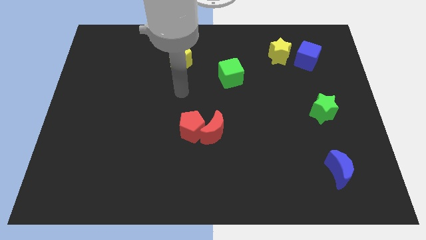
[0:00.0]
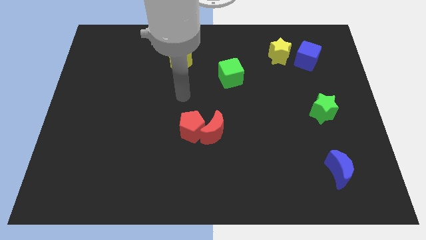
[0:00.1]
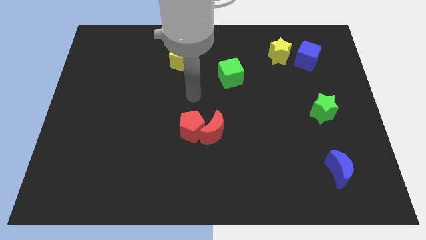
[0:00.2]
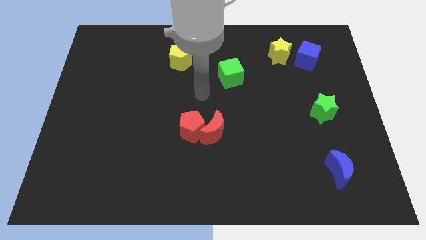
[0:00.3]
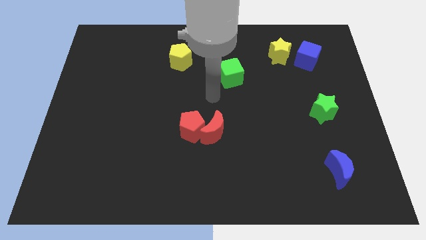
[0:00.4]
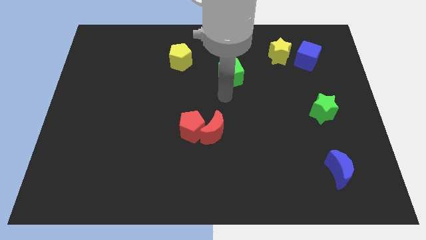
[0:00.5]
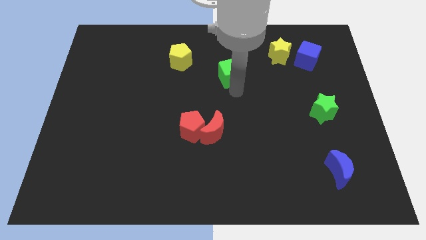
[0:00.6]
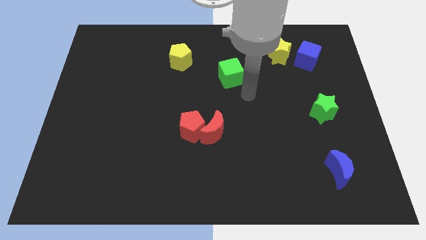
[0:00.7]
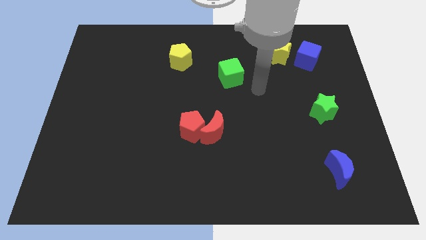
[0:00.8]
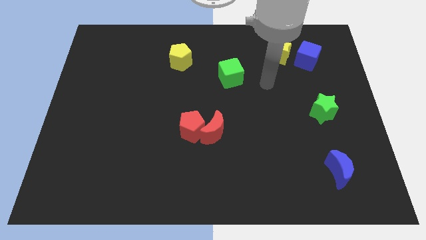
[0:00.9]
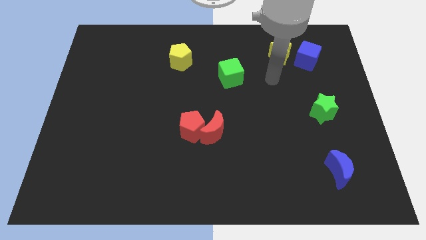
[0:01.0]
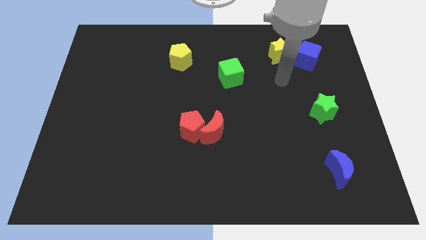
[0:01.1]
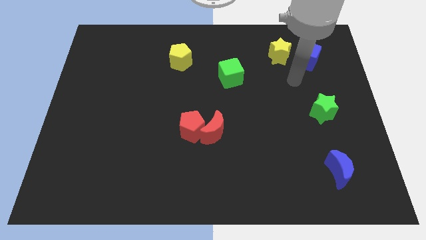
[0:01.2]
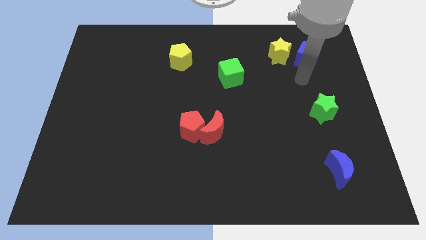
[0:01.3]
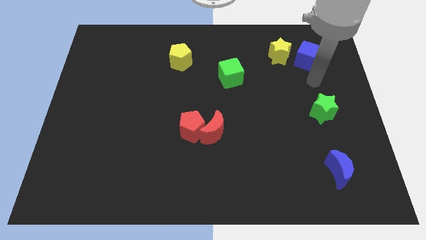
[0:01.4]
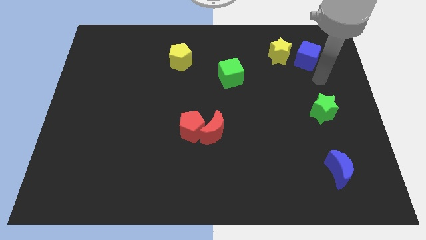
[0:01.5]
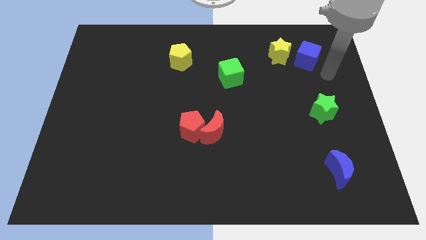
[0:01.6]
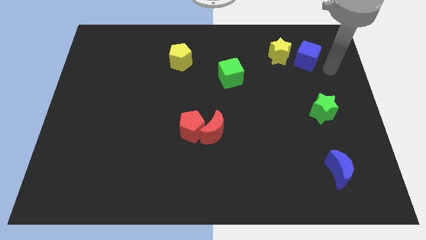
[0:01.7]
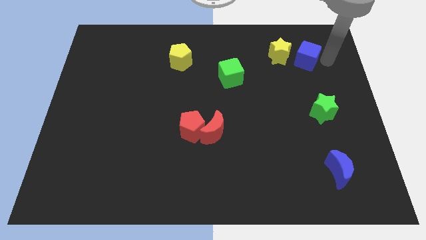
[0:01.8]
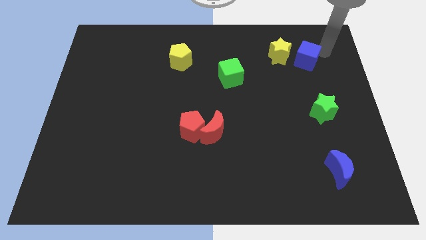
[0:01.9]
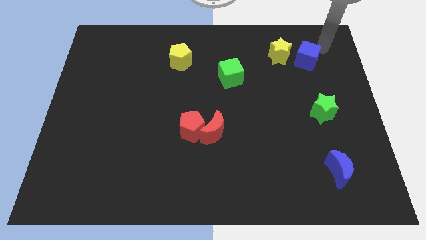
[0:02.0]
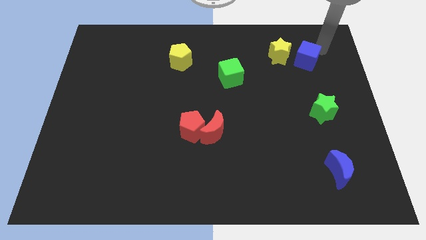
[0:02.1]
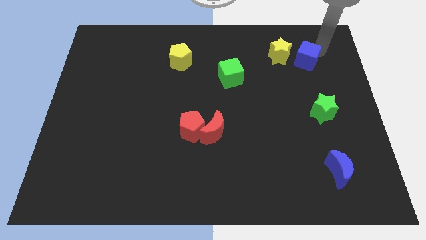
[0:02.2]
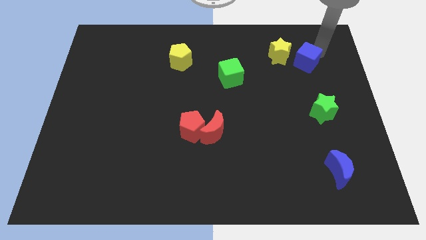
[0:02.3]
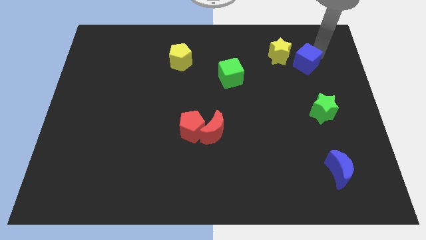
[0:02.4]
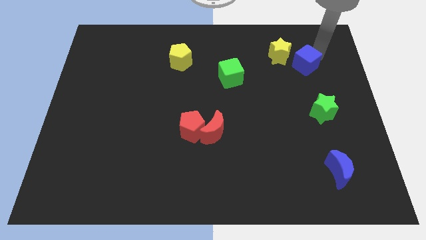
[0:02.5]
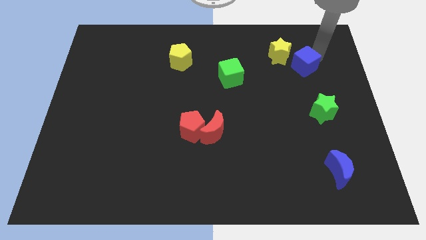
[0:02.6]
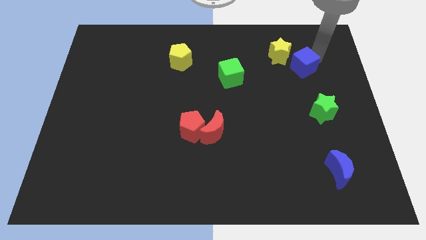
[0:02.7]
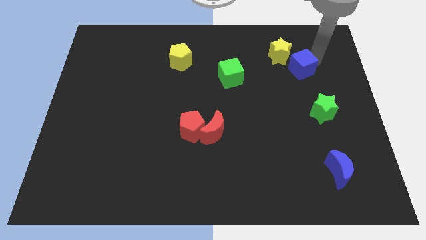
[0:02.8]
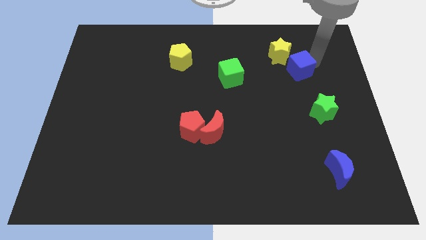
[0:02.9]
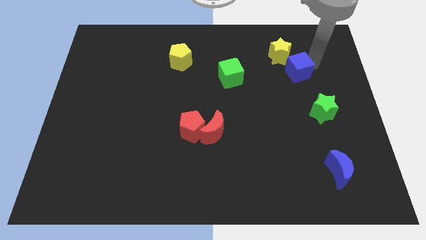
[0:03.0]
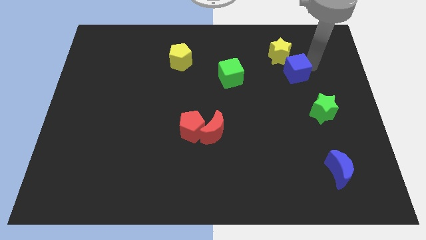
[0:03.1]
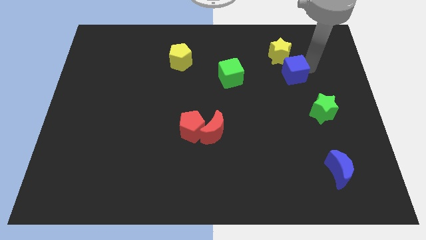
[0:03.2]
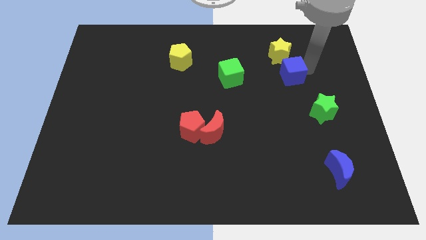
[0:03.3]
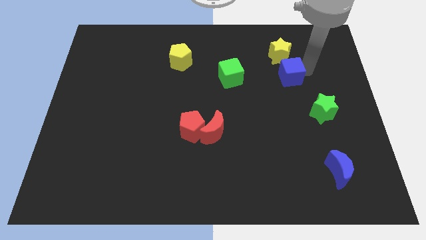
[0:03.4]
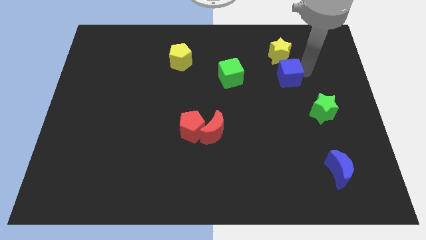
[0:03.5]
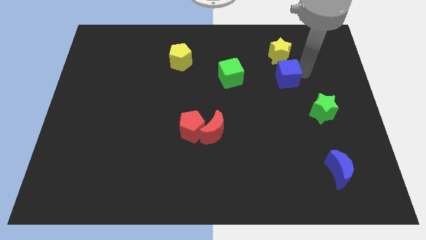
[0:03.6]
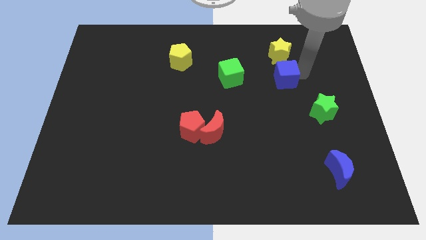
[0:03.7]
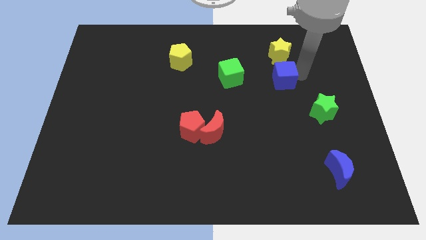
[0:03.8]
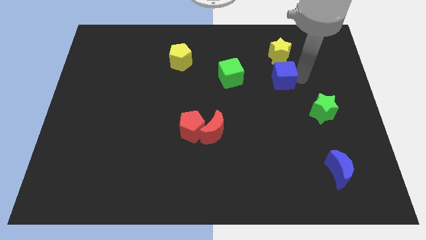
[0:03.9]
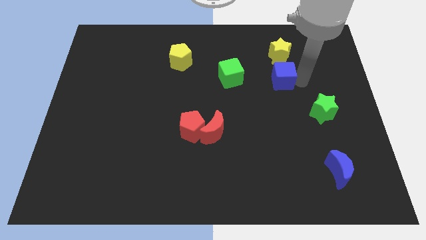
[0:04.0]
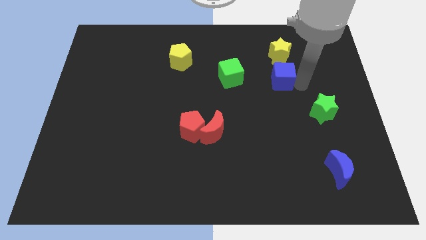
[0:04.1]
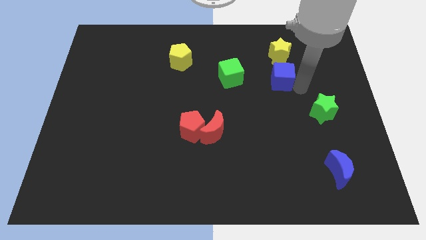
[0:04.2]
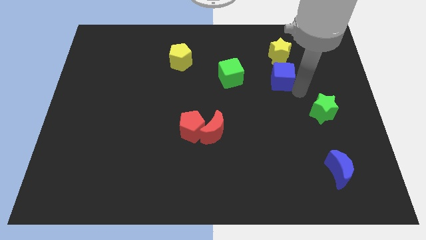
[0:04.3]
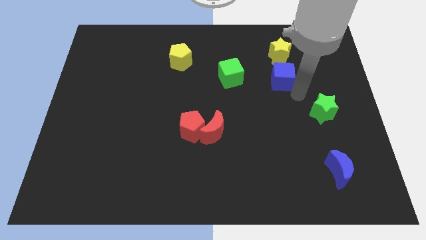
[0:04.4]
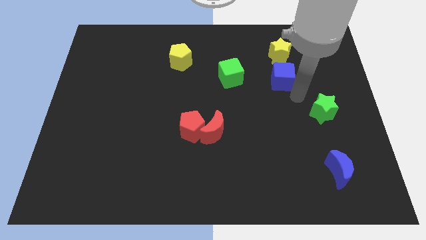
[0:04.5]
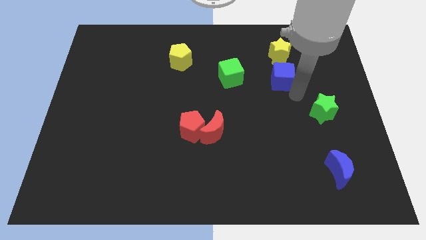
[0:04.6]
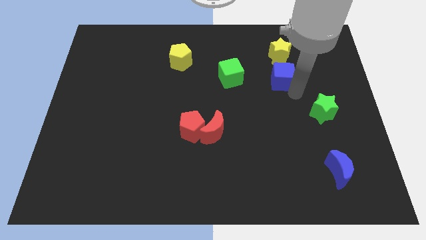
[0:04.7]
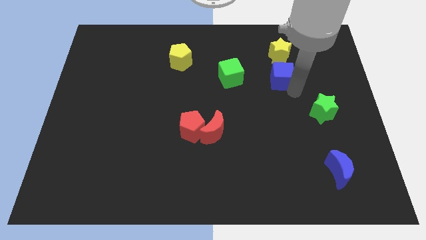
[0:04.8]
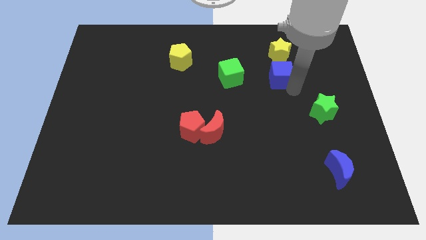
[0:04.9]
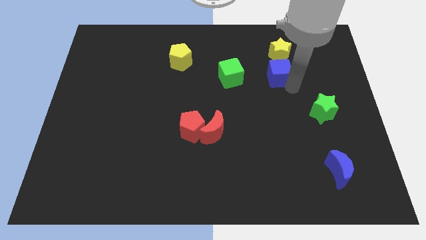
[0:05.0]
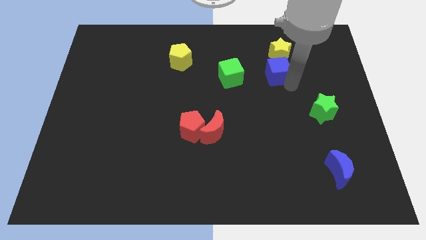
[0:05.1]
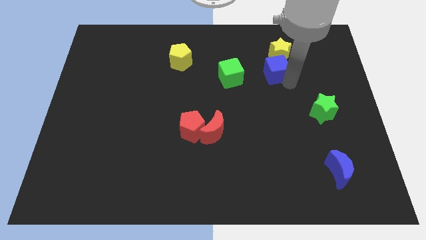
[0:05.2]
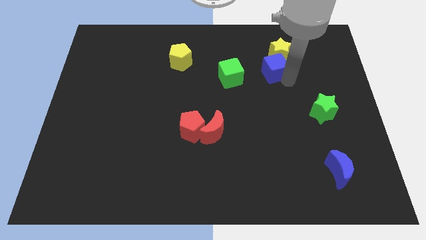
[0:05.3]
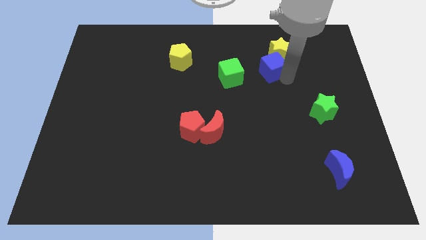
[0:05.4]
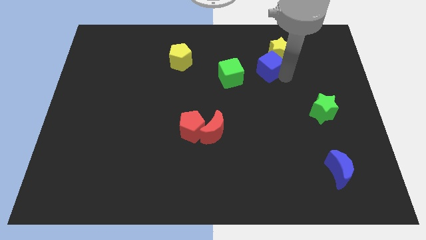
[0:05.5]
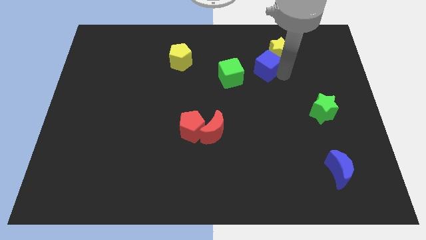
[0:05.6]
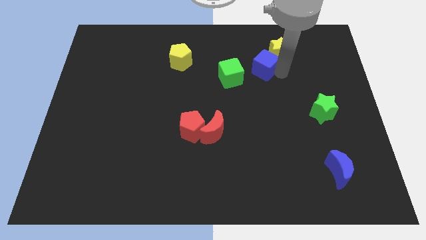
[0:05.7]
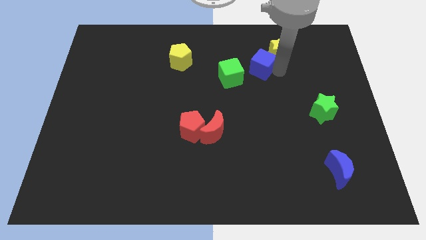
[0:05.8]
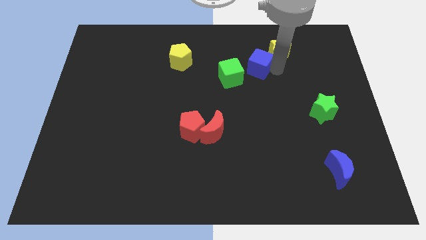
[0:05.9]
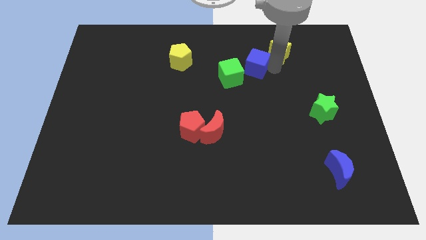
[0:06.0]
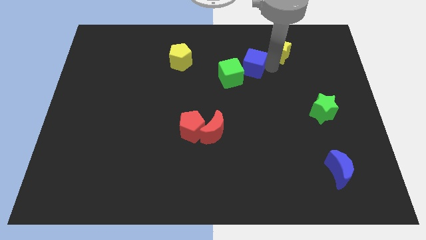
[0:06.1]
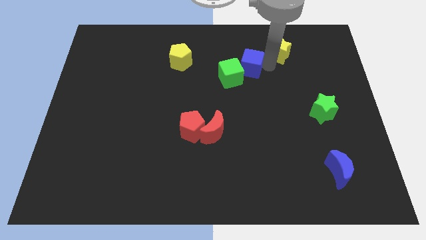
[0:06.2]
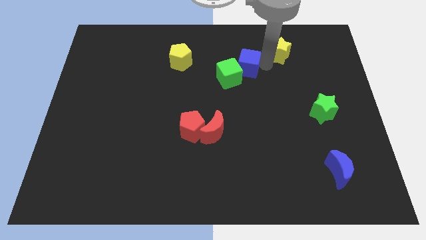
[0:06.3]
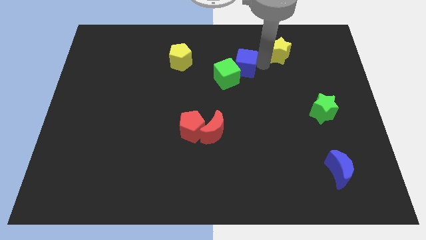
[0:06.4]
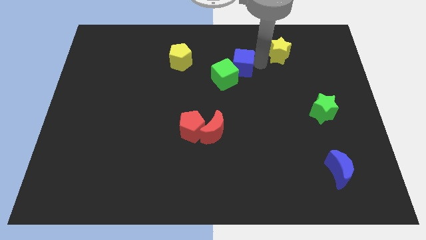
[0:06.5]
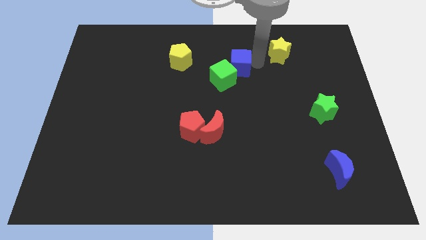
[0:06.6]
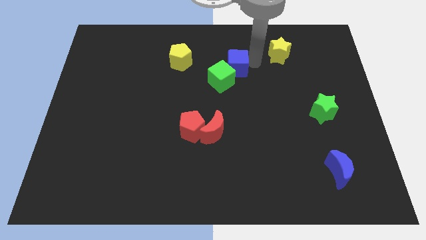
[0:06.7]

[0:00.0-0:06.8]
slide the blue cube to the middle of the board

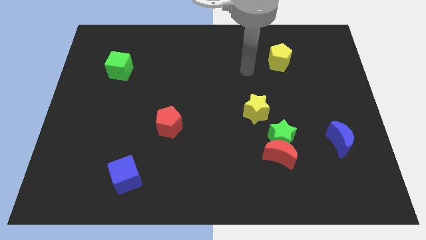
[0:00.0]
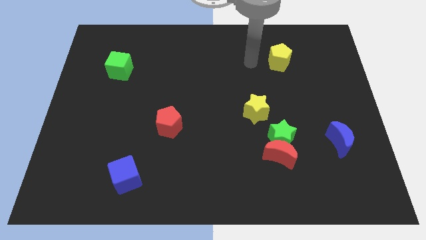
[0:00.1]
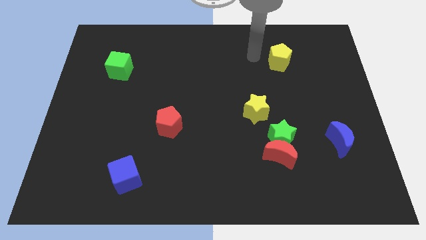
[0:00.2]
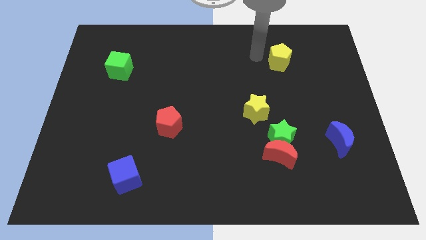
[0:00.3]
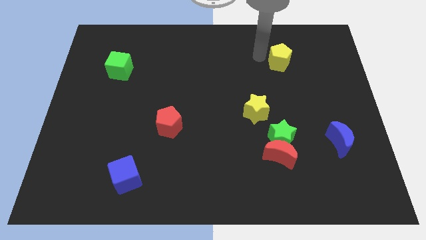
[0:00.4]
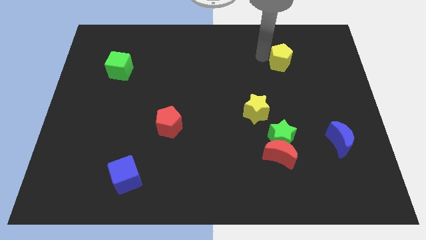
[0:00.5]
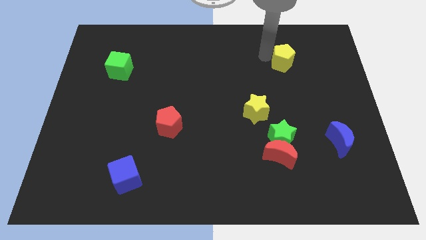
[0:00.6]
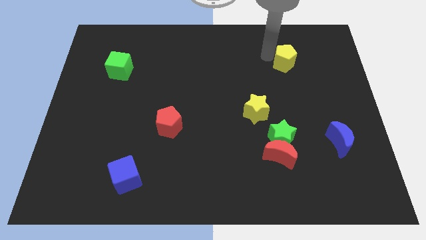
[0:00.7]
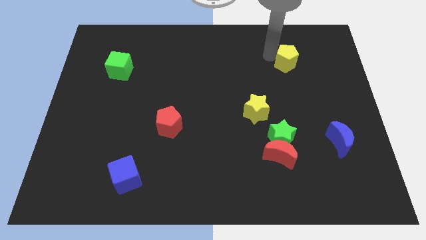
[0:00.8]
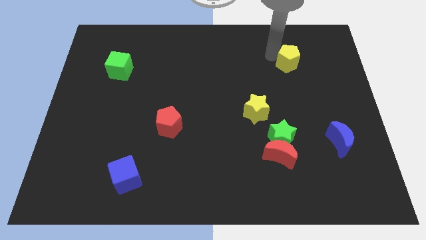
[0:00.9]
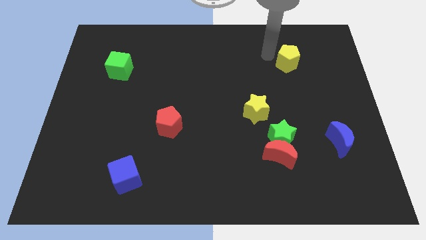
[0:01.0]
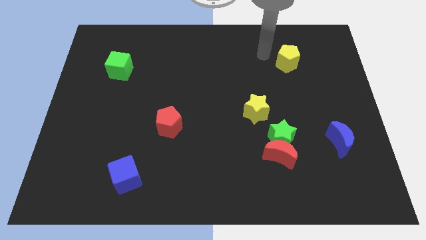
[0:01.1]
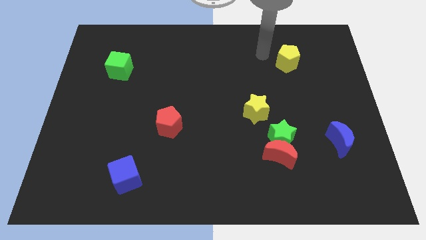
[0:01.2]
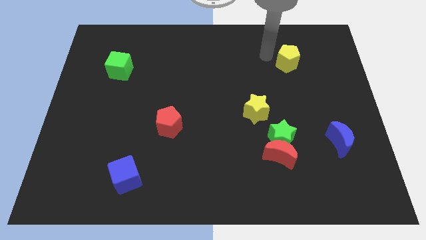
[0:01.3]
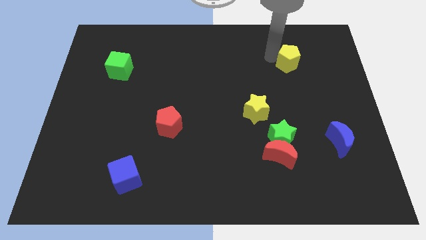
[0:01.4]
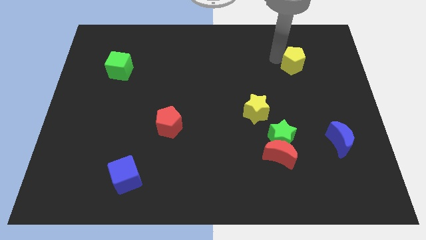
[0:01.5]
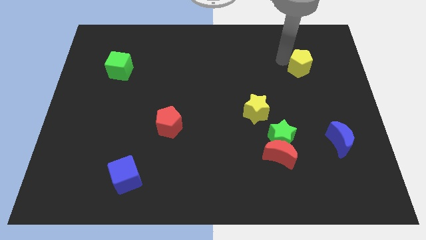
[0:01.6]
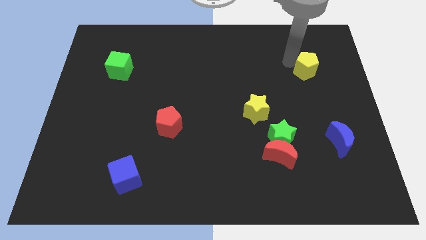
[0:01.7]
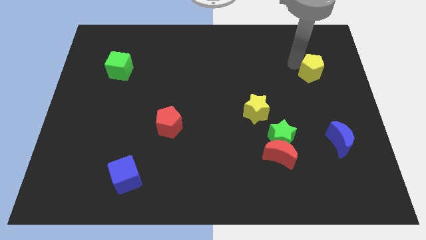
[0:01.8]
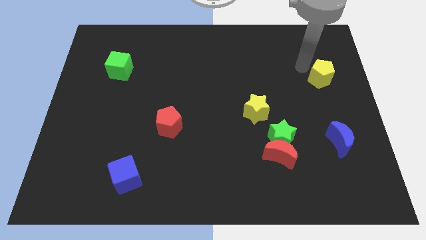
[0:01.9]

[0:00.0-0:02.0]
move the yellow pentagon to the center right
